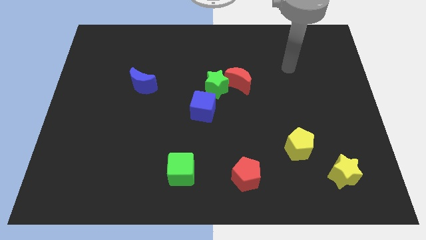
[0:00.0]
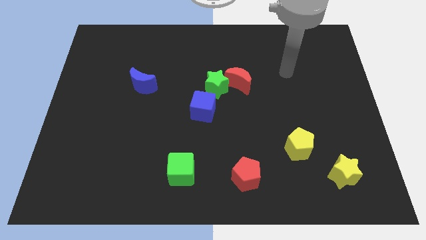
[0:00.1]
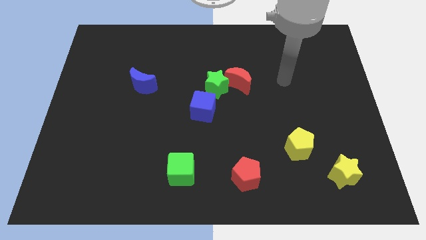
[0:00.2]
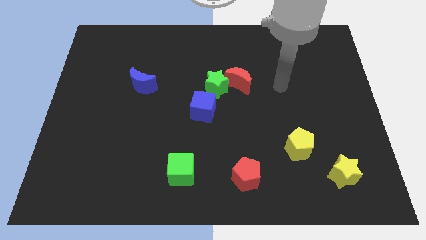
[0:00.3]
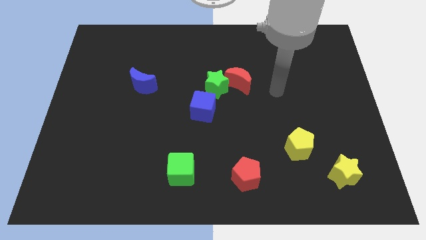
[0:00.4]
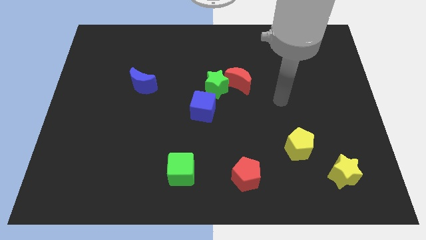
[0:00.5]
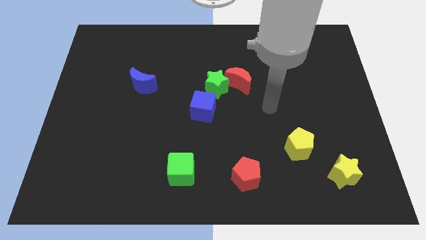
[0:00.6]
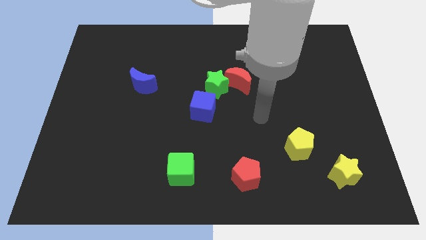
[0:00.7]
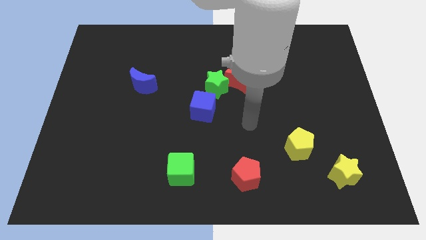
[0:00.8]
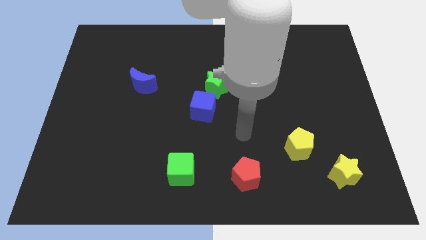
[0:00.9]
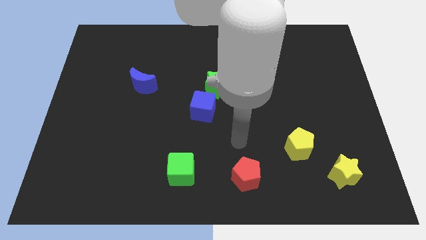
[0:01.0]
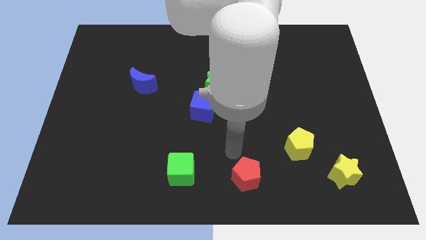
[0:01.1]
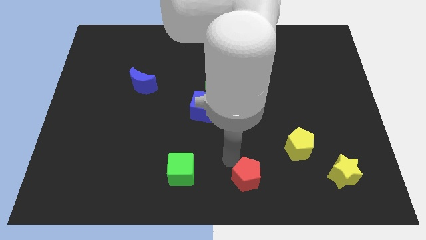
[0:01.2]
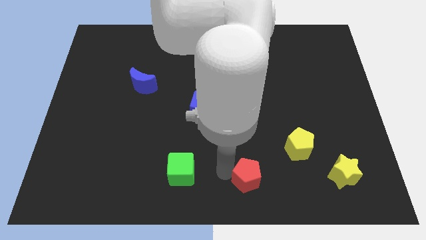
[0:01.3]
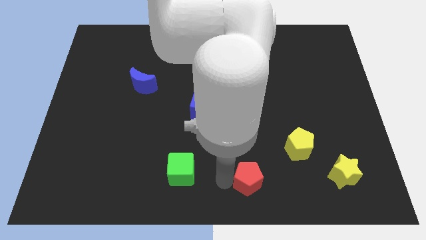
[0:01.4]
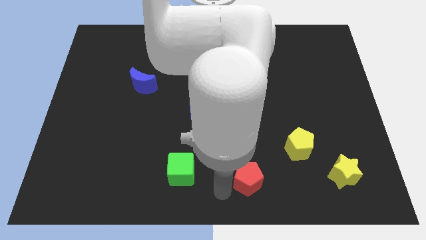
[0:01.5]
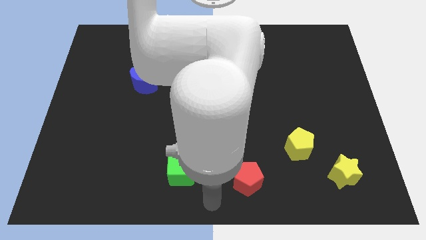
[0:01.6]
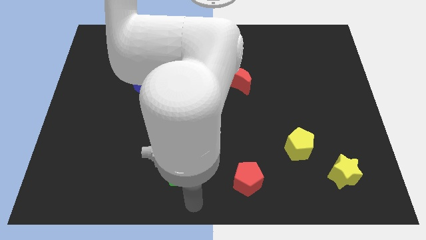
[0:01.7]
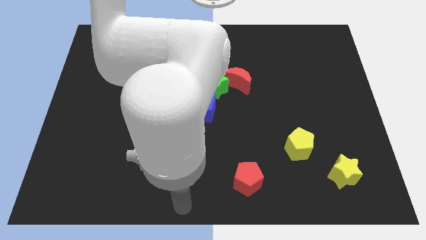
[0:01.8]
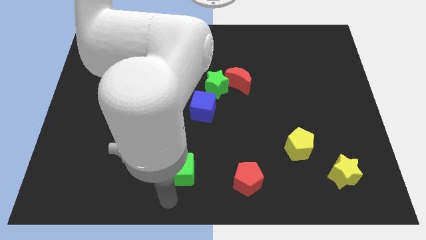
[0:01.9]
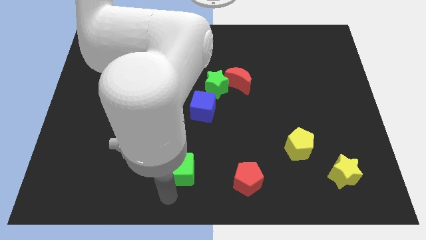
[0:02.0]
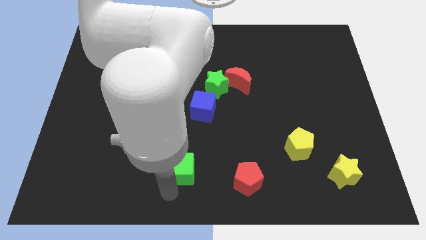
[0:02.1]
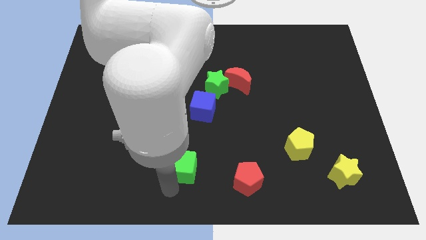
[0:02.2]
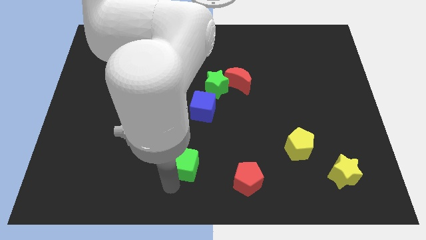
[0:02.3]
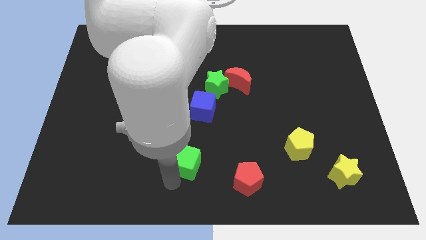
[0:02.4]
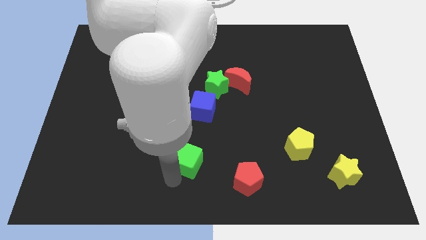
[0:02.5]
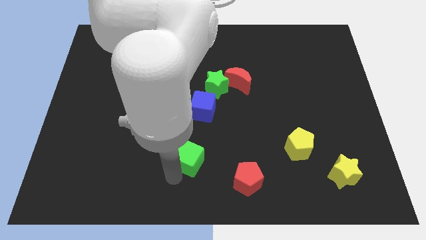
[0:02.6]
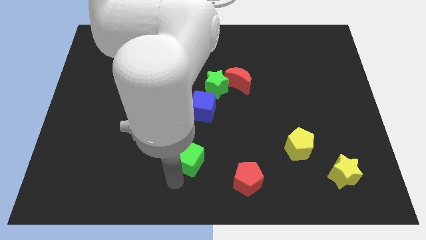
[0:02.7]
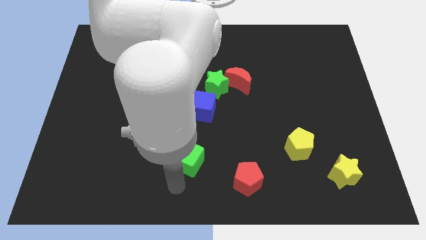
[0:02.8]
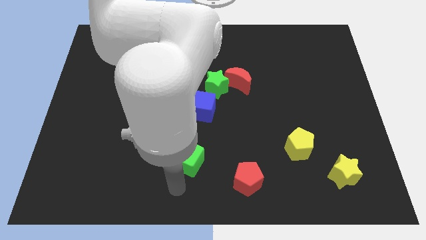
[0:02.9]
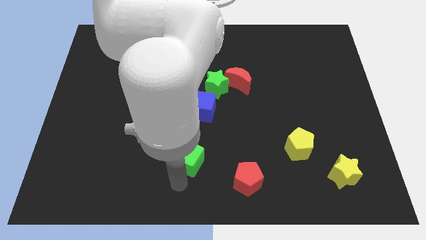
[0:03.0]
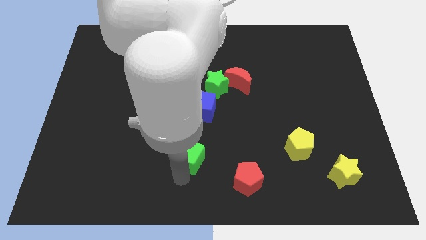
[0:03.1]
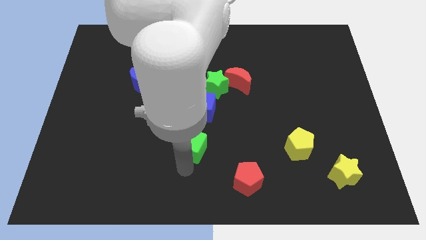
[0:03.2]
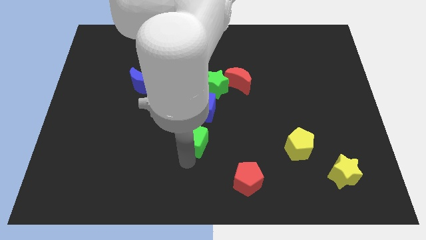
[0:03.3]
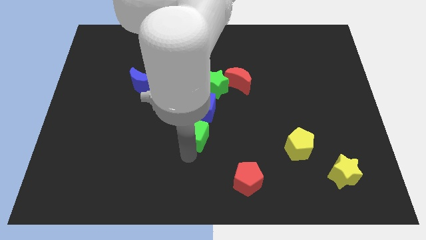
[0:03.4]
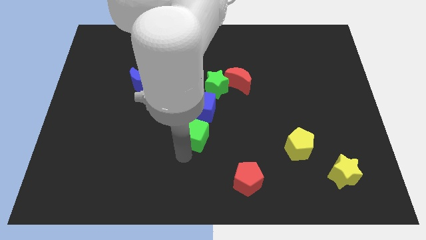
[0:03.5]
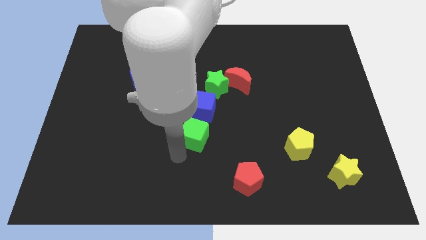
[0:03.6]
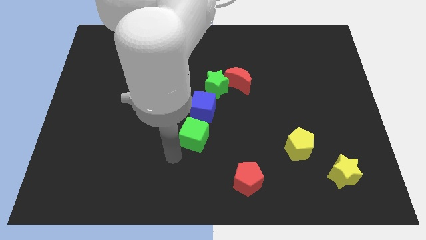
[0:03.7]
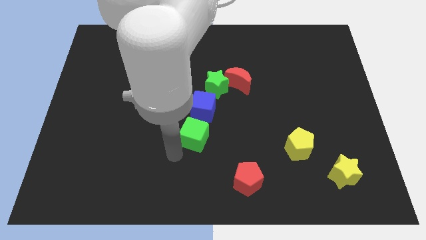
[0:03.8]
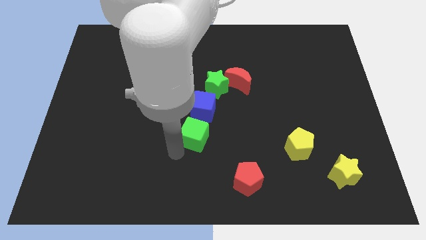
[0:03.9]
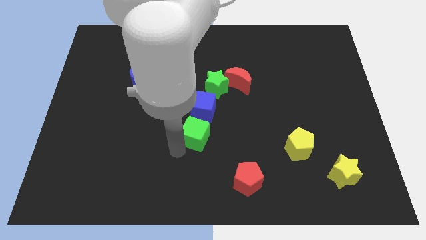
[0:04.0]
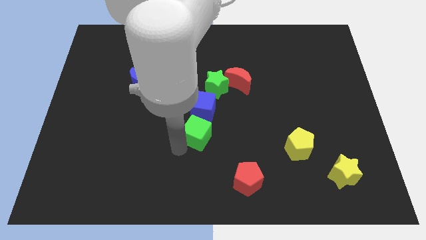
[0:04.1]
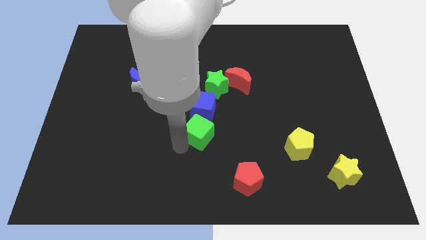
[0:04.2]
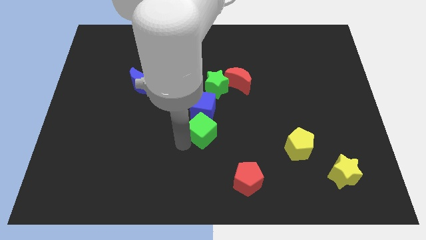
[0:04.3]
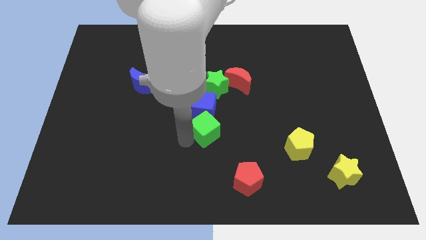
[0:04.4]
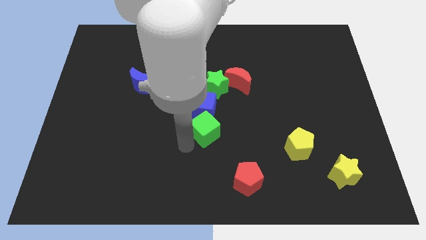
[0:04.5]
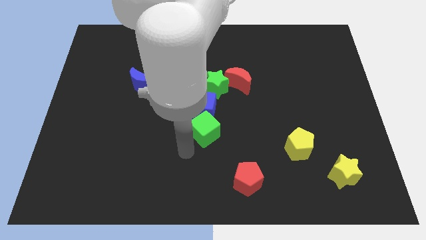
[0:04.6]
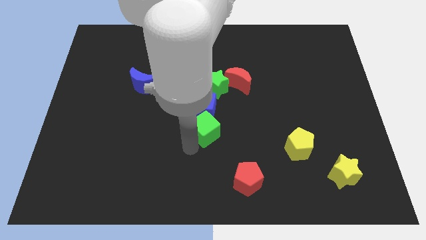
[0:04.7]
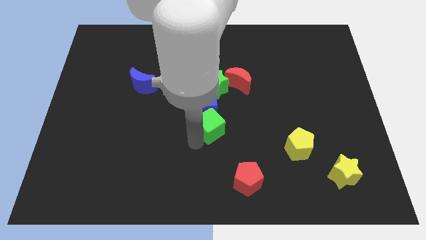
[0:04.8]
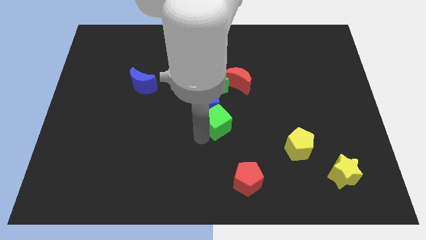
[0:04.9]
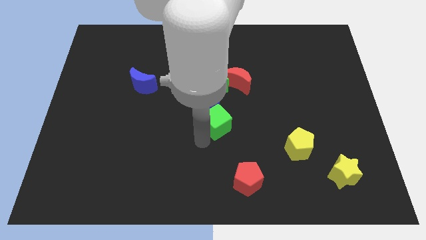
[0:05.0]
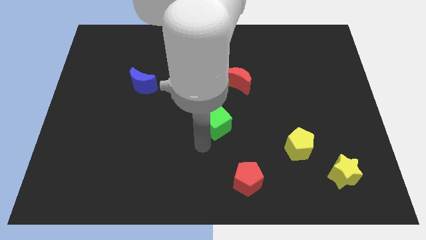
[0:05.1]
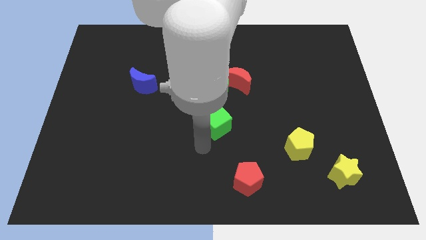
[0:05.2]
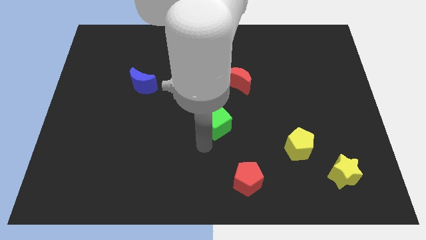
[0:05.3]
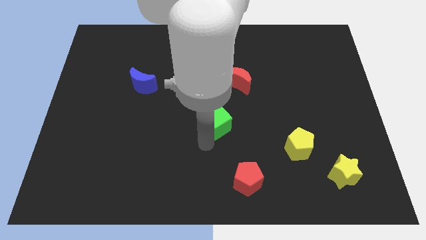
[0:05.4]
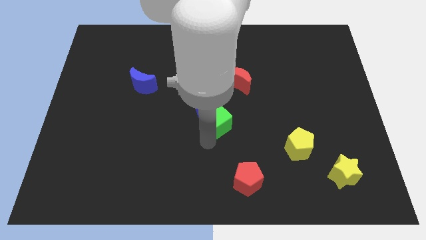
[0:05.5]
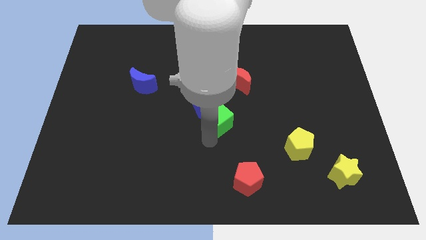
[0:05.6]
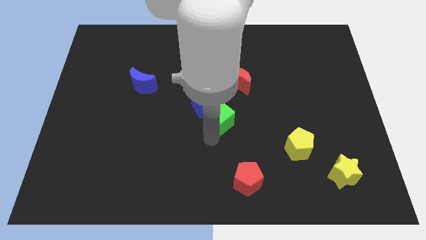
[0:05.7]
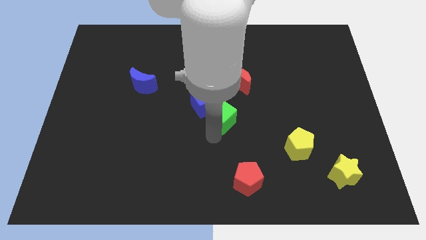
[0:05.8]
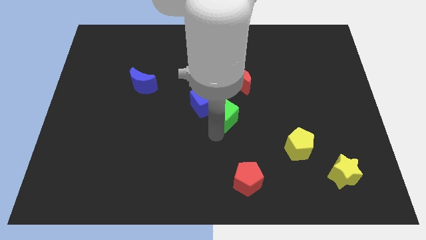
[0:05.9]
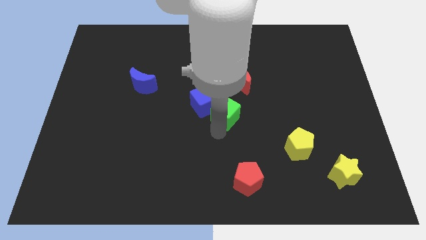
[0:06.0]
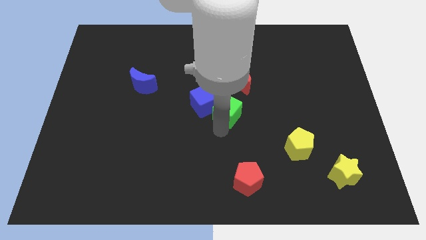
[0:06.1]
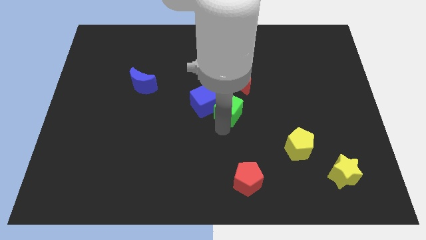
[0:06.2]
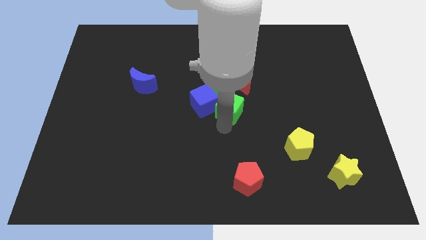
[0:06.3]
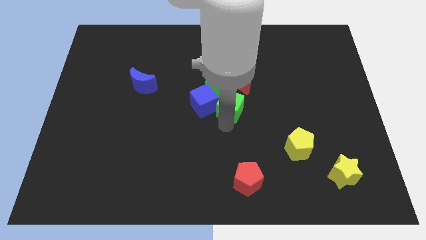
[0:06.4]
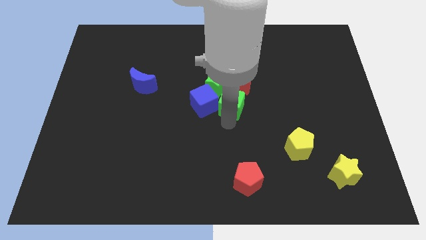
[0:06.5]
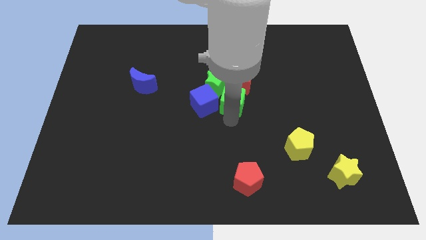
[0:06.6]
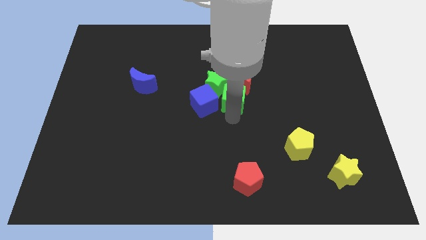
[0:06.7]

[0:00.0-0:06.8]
put the green cube close to the red moon
